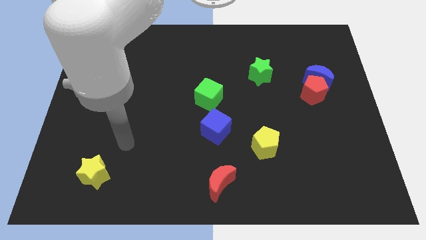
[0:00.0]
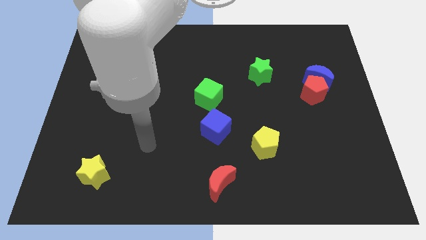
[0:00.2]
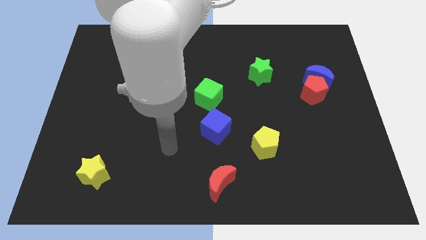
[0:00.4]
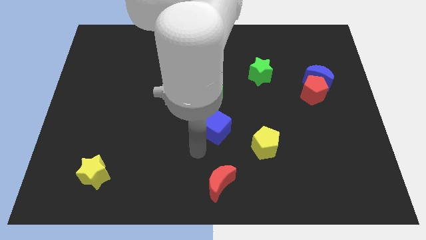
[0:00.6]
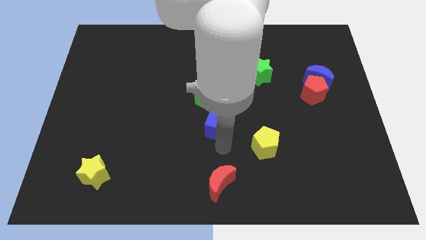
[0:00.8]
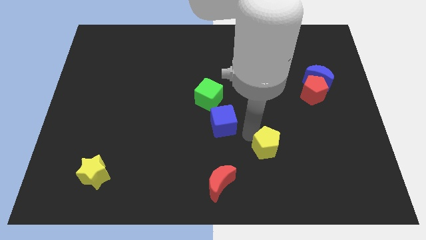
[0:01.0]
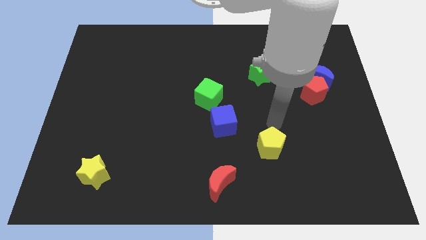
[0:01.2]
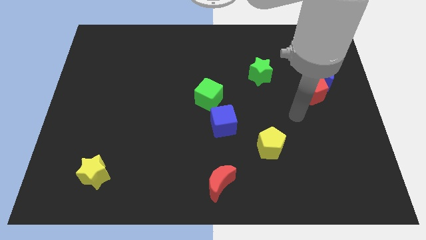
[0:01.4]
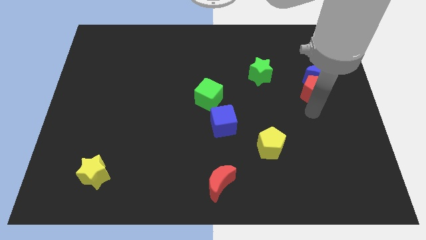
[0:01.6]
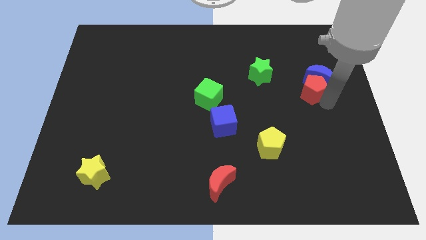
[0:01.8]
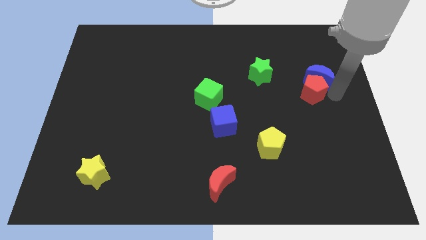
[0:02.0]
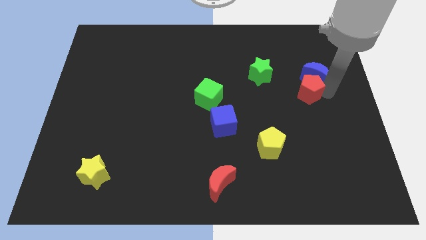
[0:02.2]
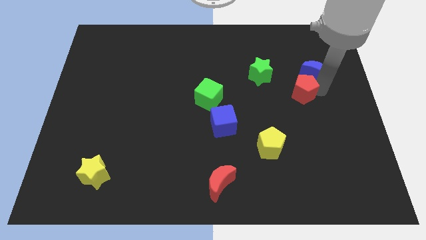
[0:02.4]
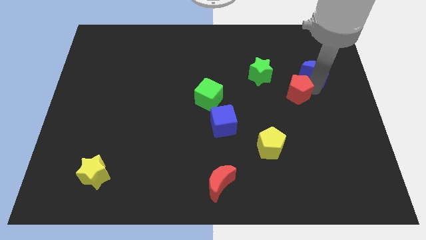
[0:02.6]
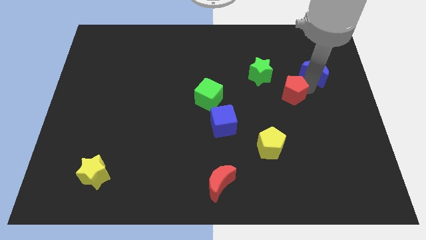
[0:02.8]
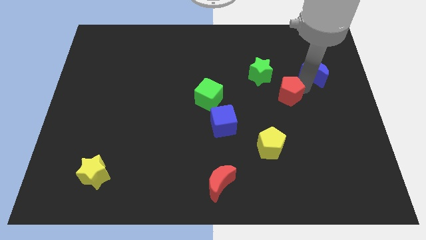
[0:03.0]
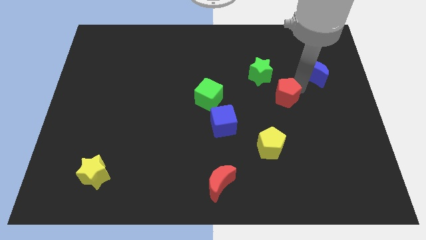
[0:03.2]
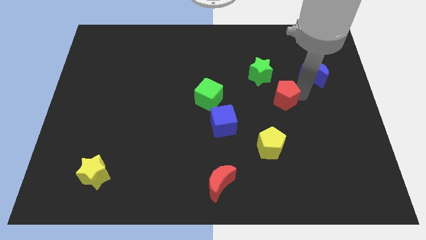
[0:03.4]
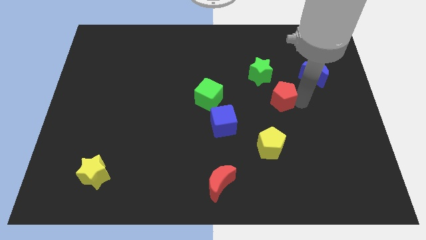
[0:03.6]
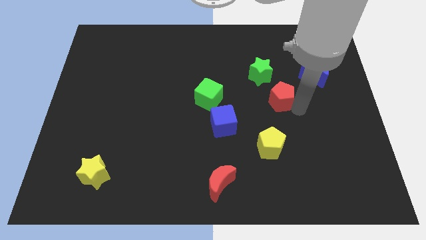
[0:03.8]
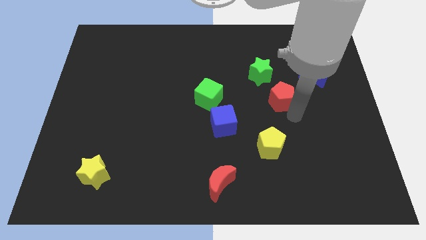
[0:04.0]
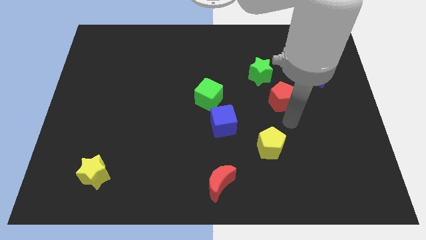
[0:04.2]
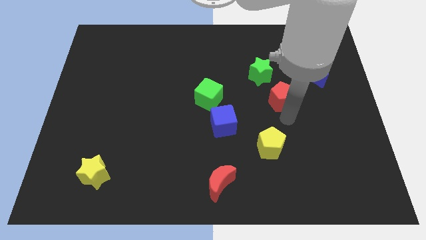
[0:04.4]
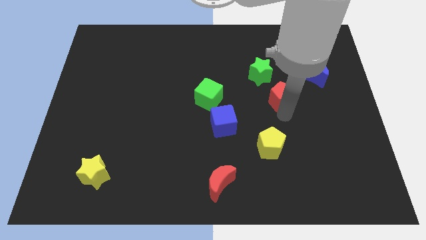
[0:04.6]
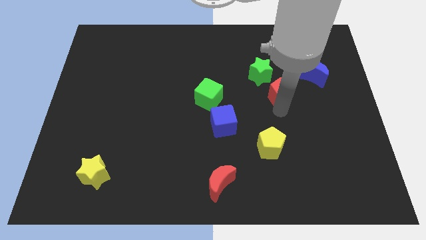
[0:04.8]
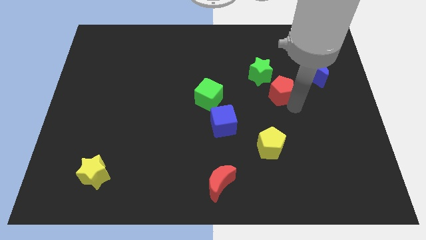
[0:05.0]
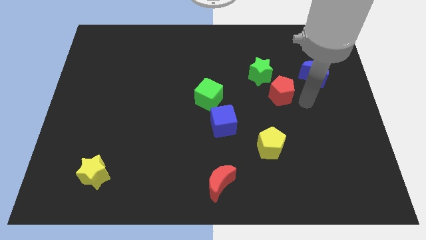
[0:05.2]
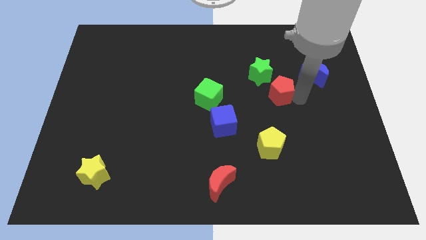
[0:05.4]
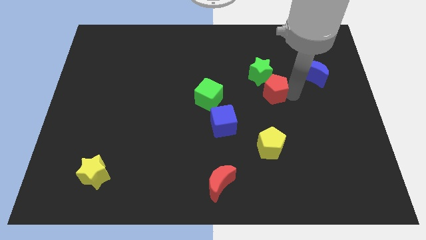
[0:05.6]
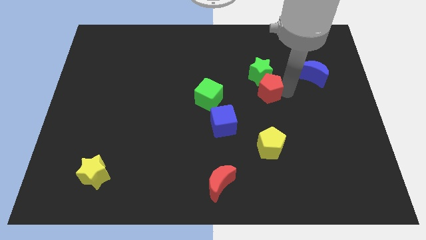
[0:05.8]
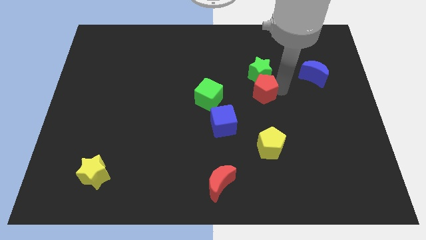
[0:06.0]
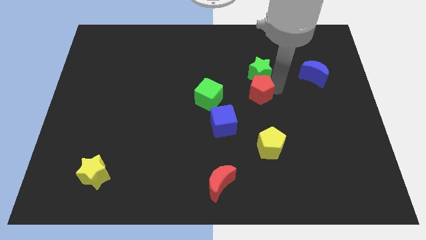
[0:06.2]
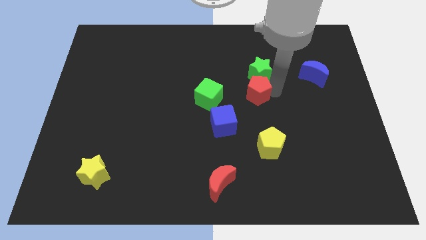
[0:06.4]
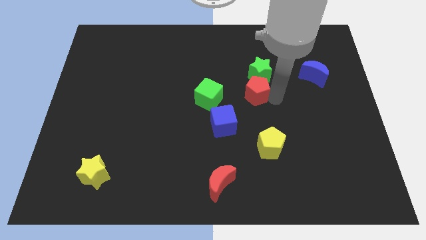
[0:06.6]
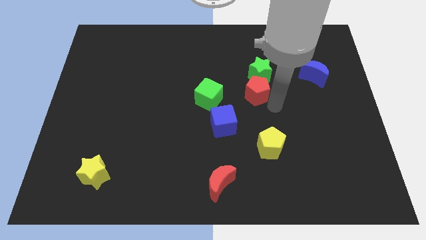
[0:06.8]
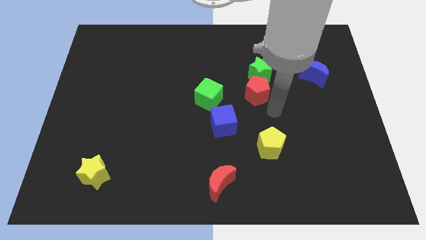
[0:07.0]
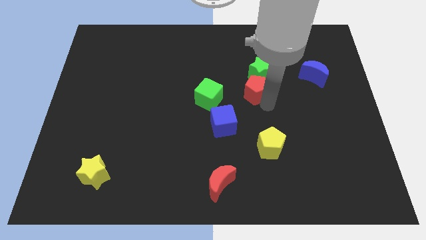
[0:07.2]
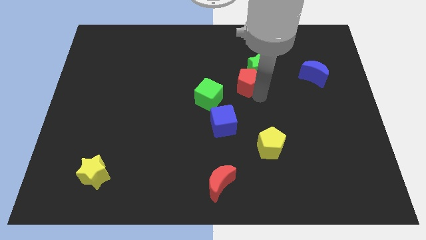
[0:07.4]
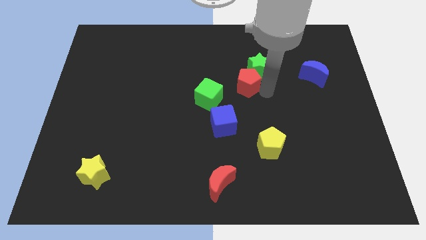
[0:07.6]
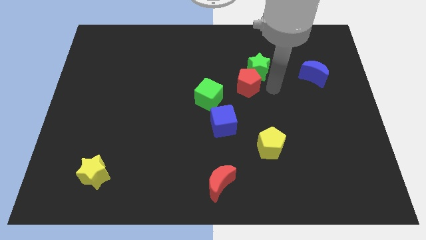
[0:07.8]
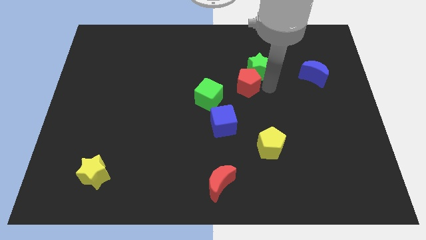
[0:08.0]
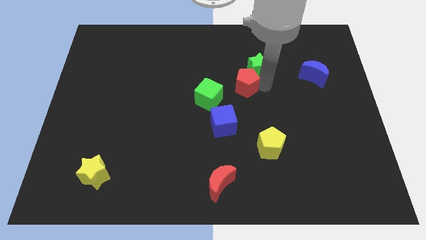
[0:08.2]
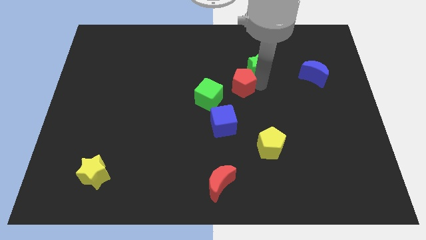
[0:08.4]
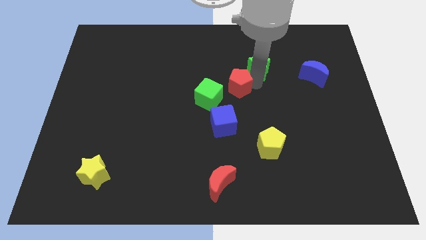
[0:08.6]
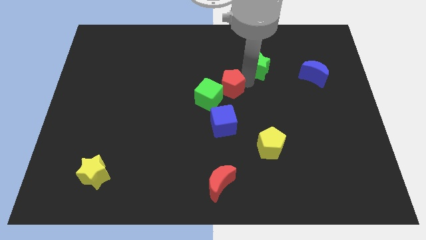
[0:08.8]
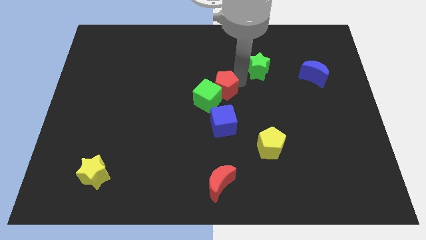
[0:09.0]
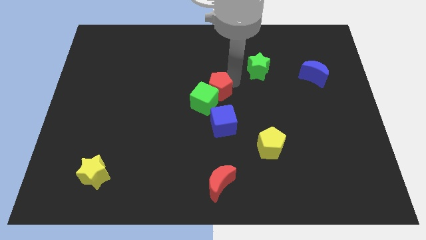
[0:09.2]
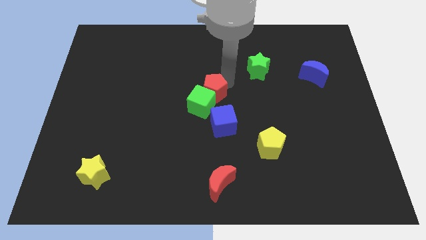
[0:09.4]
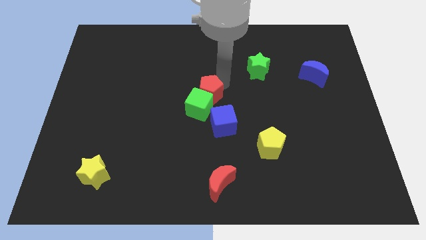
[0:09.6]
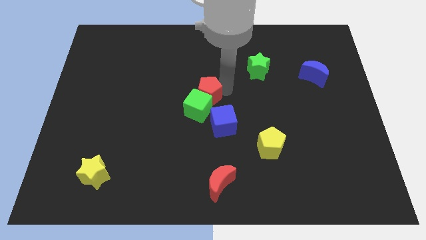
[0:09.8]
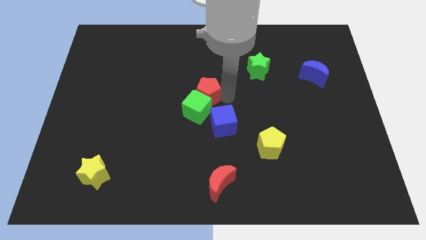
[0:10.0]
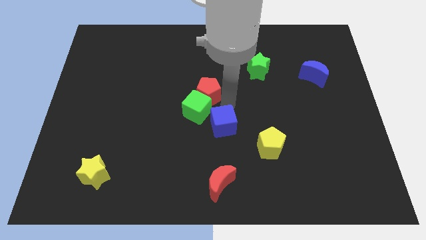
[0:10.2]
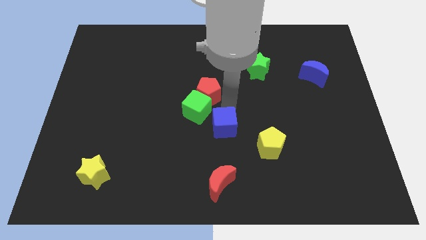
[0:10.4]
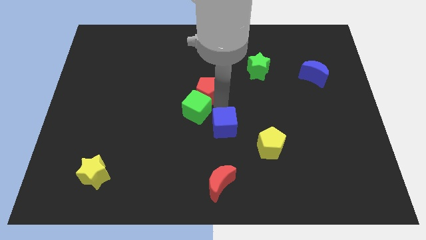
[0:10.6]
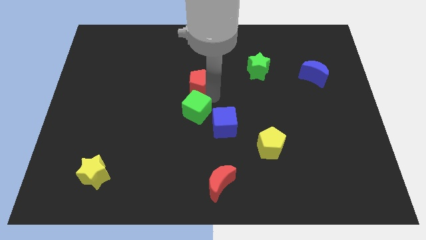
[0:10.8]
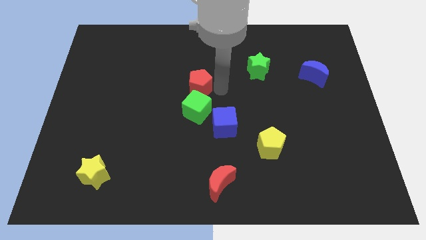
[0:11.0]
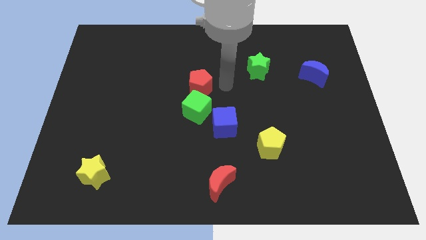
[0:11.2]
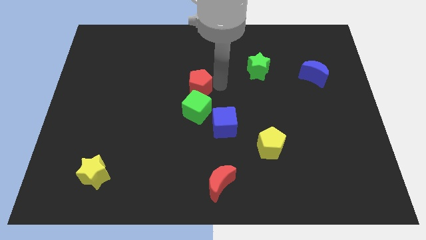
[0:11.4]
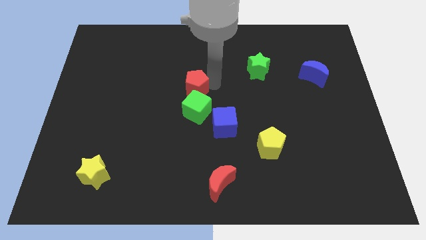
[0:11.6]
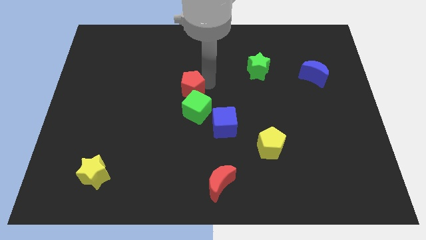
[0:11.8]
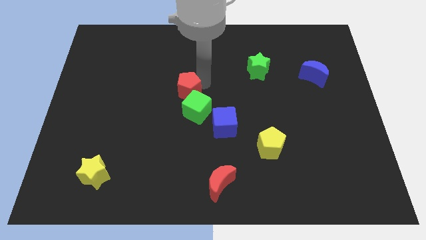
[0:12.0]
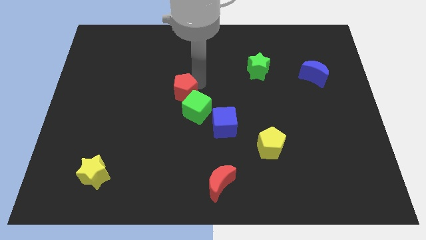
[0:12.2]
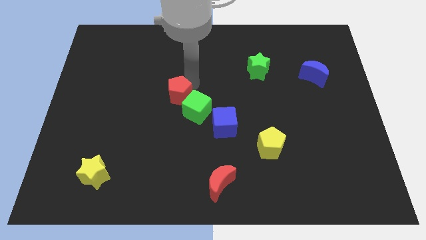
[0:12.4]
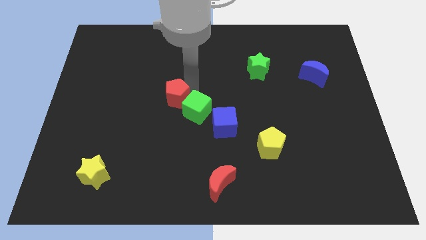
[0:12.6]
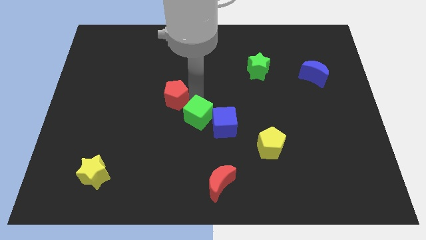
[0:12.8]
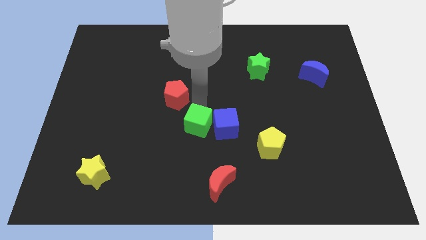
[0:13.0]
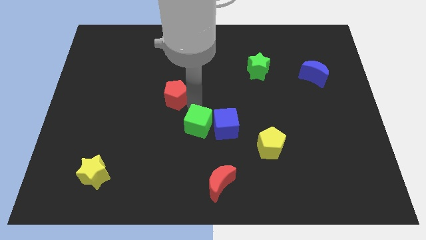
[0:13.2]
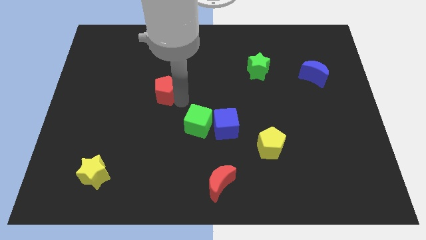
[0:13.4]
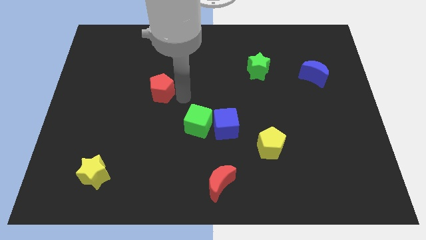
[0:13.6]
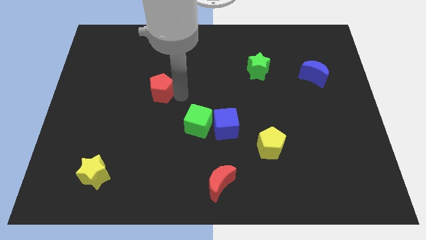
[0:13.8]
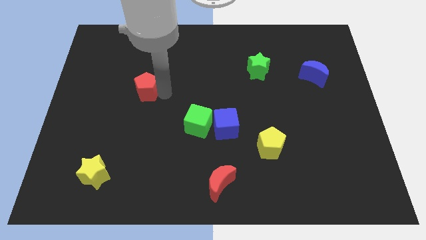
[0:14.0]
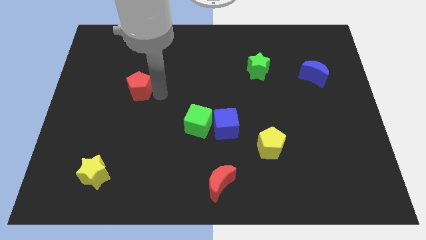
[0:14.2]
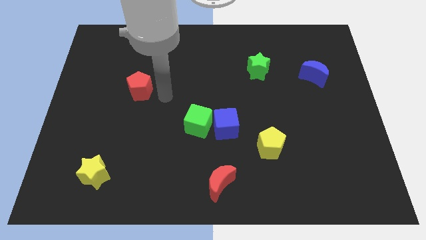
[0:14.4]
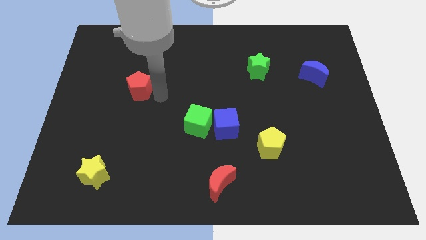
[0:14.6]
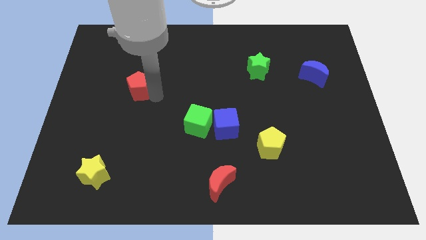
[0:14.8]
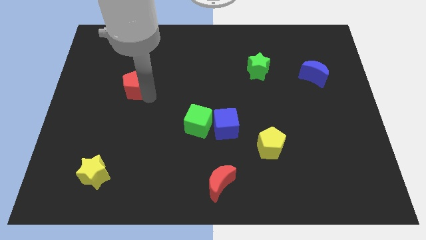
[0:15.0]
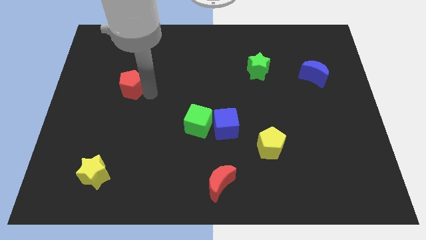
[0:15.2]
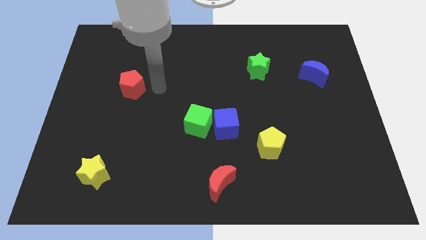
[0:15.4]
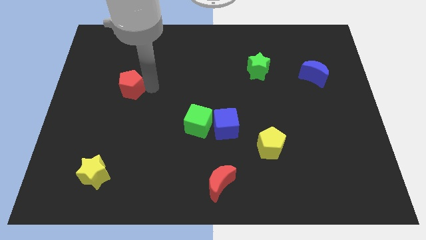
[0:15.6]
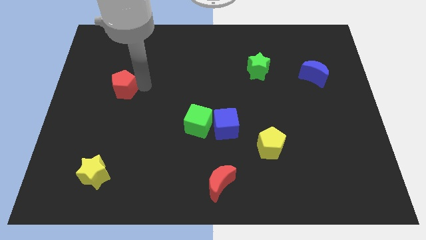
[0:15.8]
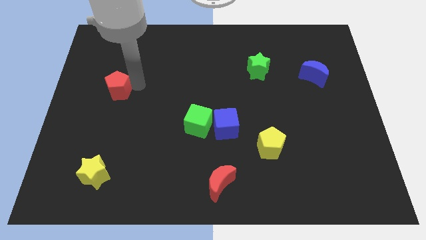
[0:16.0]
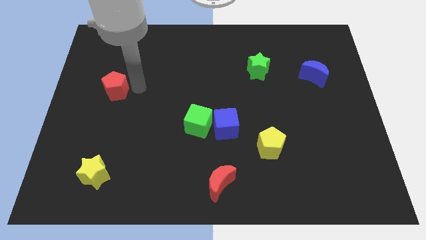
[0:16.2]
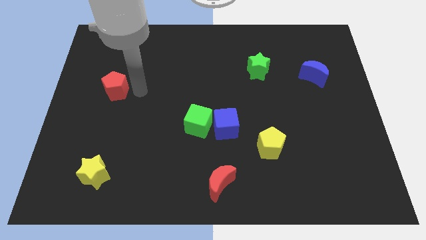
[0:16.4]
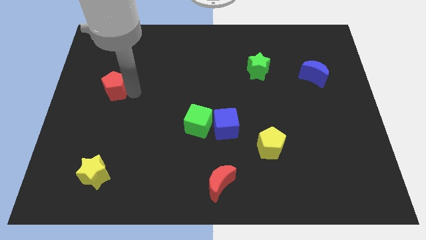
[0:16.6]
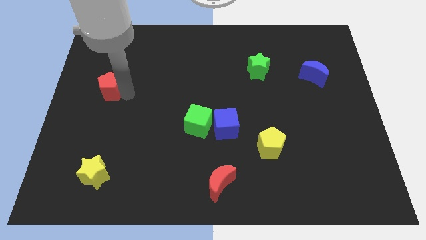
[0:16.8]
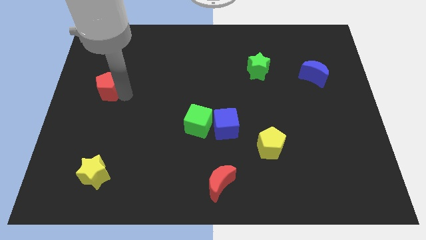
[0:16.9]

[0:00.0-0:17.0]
move the red pentagon to the center left
